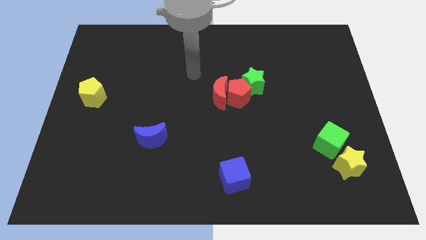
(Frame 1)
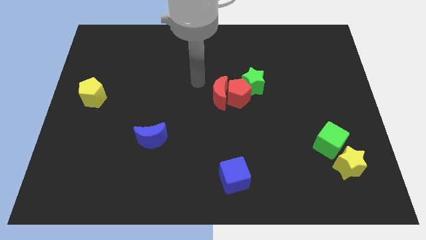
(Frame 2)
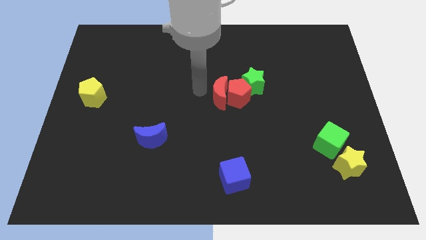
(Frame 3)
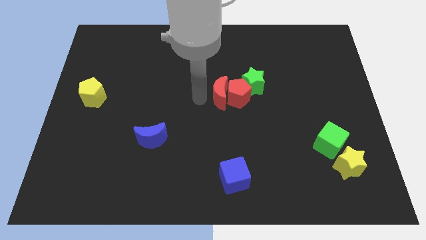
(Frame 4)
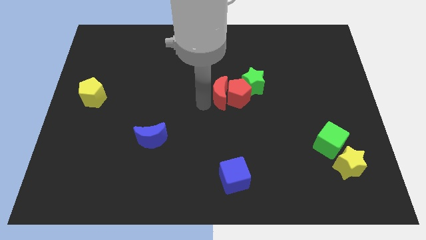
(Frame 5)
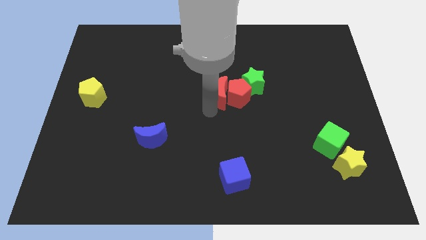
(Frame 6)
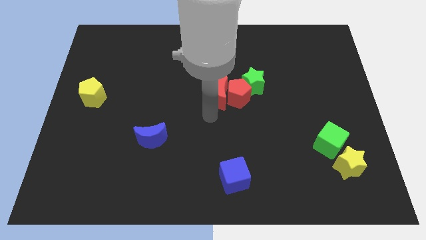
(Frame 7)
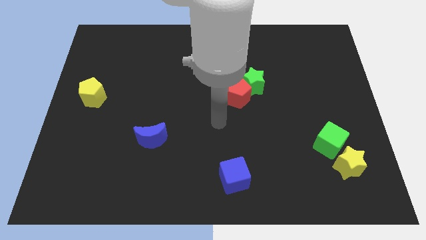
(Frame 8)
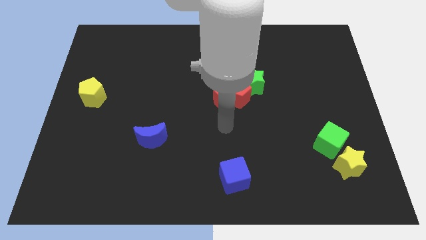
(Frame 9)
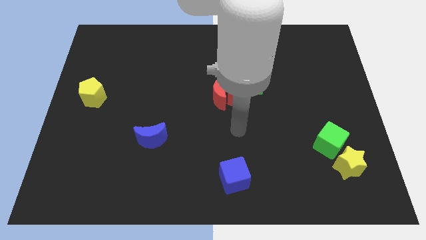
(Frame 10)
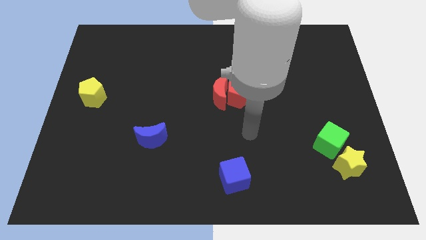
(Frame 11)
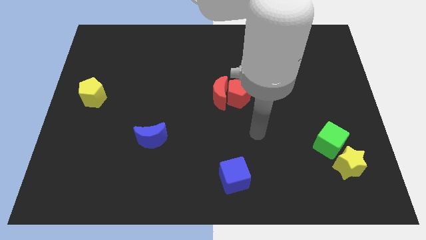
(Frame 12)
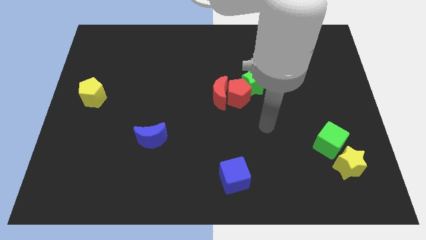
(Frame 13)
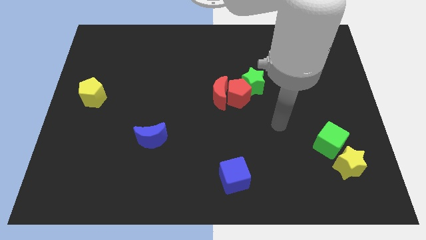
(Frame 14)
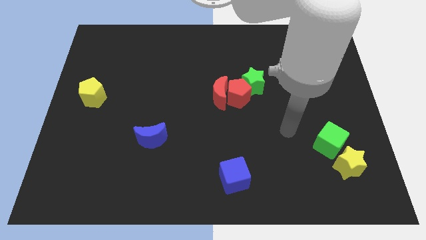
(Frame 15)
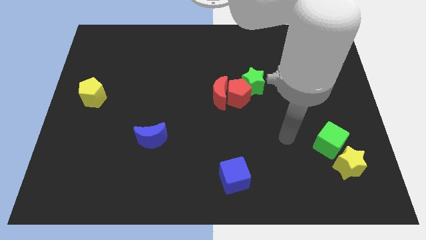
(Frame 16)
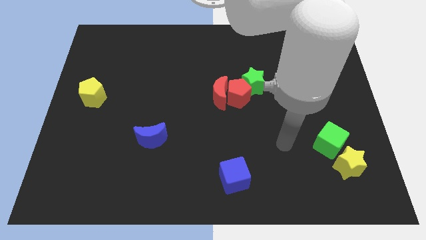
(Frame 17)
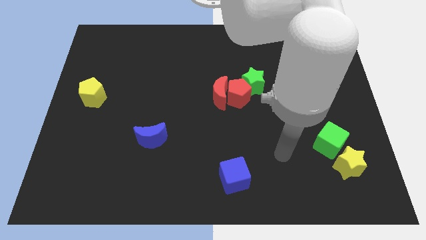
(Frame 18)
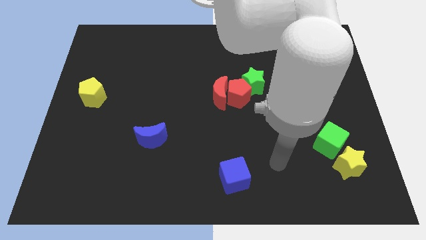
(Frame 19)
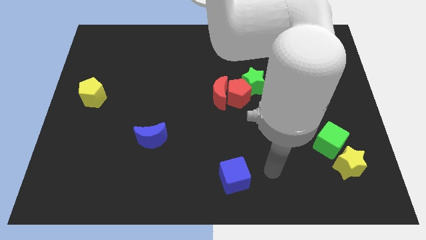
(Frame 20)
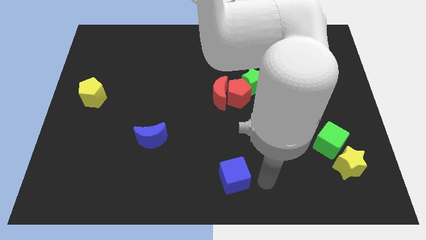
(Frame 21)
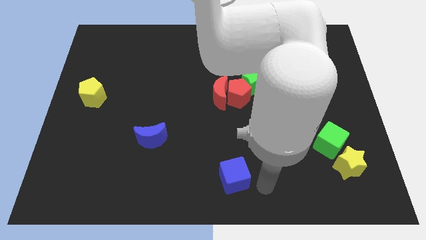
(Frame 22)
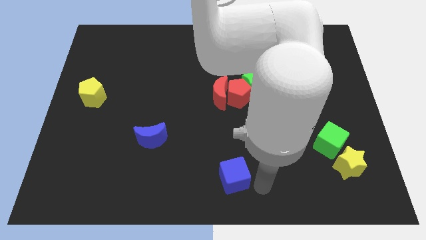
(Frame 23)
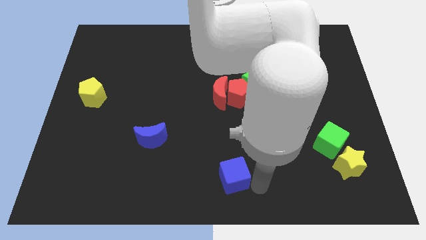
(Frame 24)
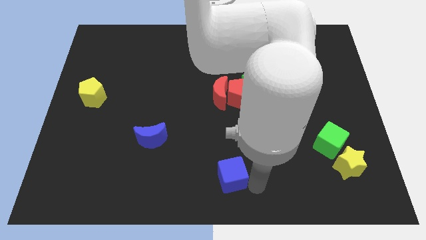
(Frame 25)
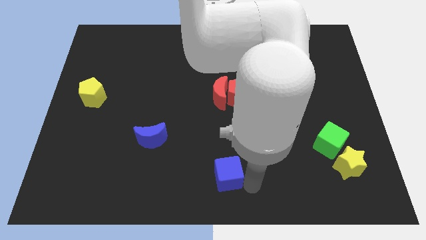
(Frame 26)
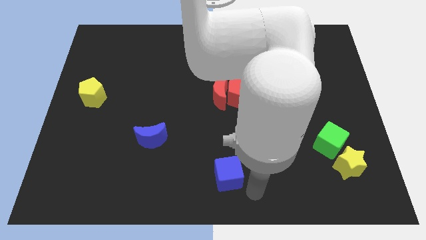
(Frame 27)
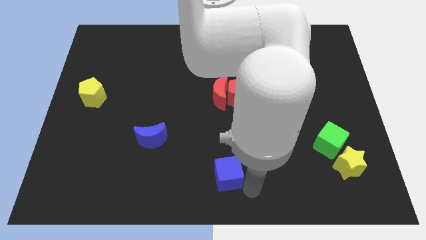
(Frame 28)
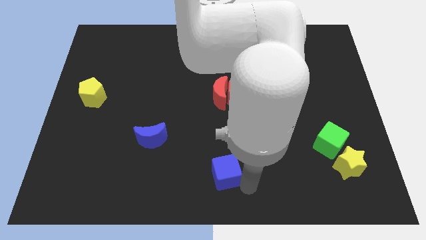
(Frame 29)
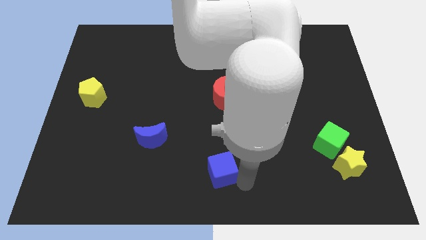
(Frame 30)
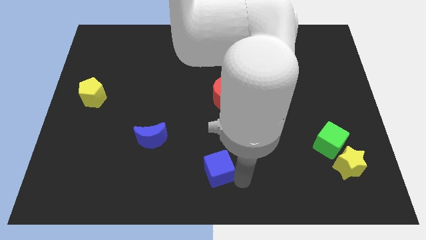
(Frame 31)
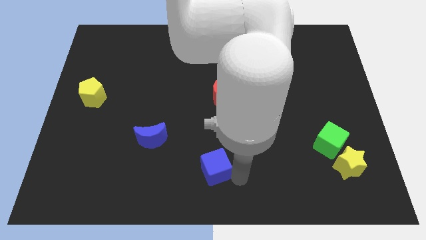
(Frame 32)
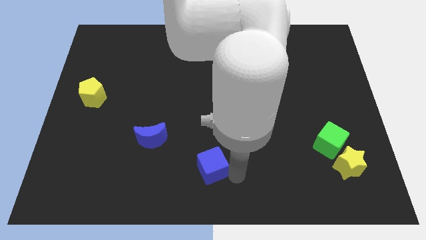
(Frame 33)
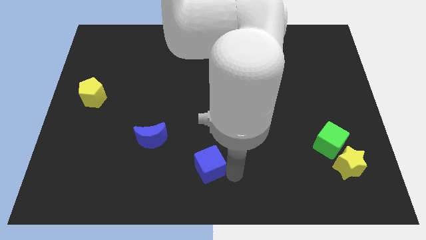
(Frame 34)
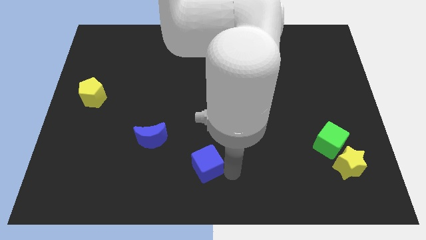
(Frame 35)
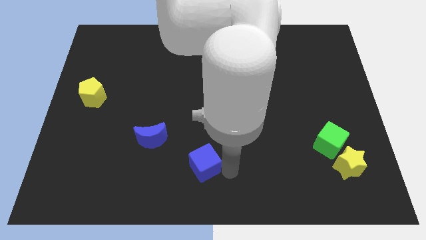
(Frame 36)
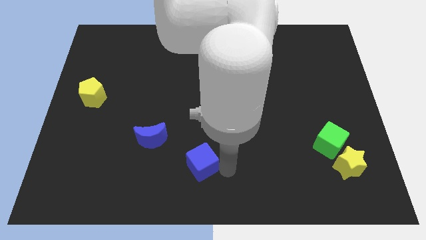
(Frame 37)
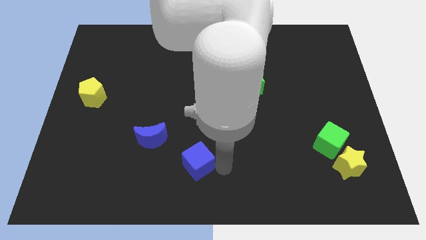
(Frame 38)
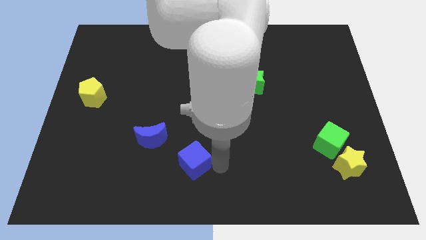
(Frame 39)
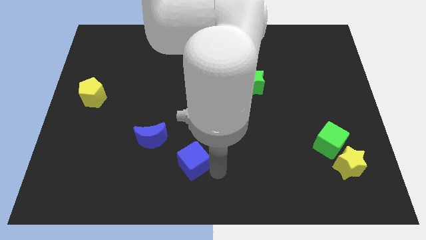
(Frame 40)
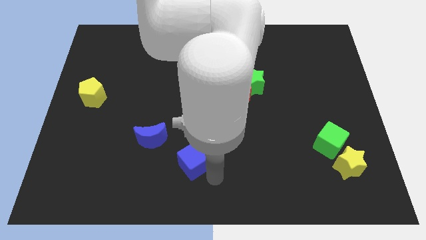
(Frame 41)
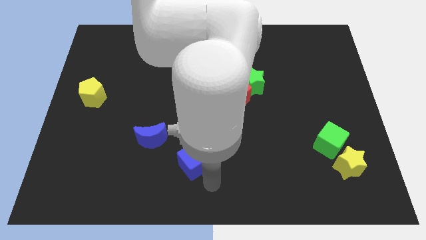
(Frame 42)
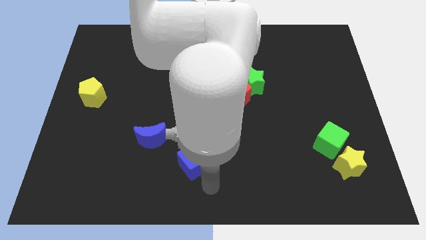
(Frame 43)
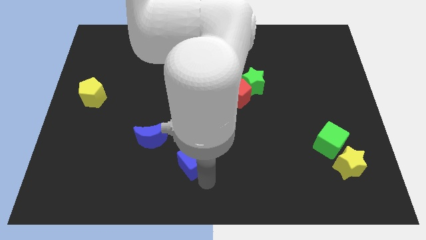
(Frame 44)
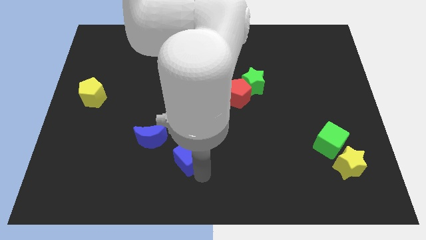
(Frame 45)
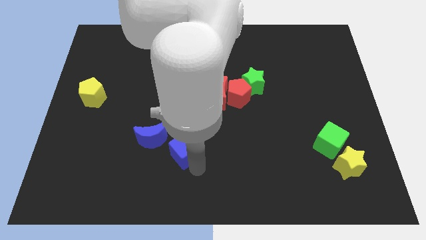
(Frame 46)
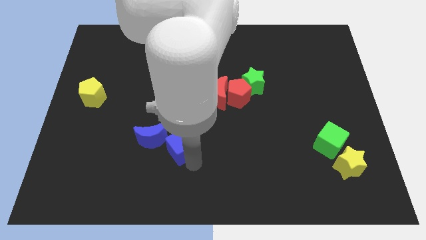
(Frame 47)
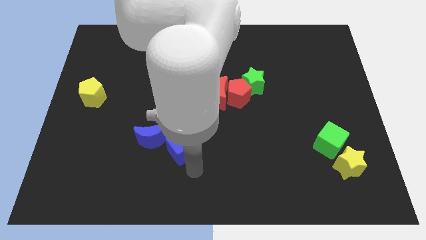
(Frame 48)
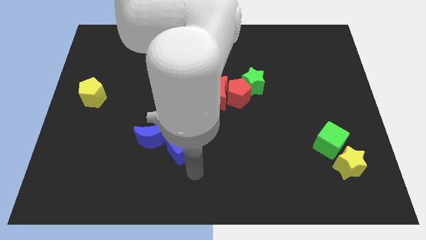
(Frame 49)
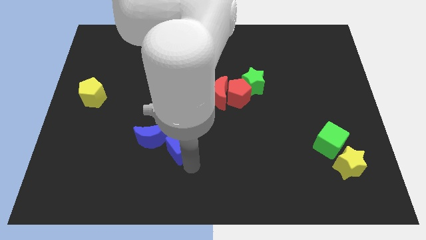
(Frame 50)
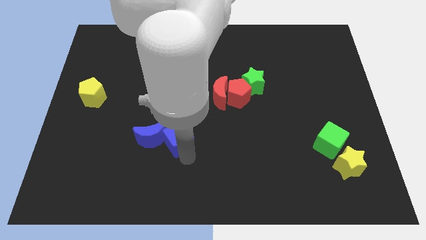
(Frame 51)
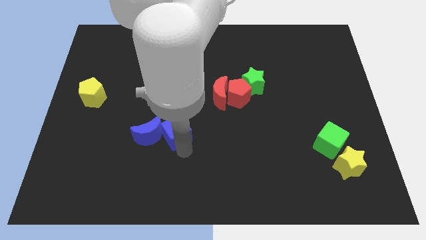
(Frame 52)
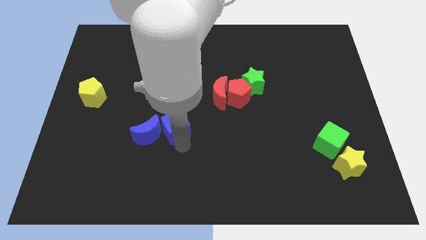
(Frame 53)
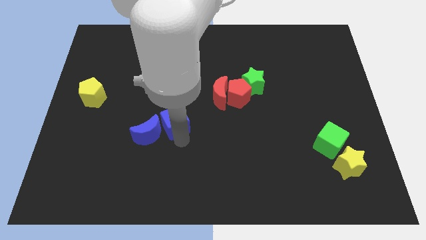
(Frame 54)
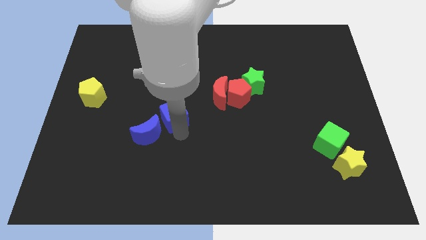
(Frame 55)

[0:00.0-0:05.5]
push the blue cube up and to the left

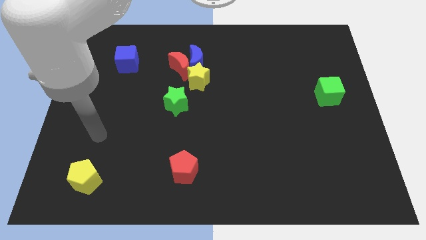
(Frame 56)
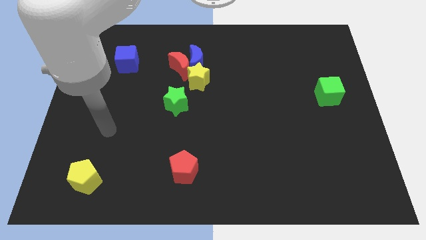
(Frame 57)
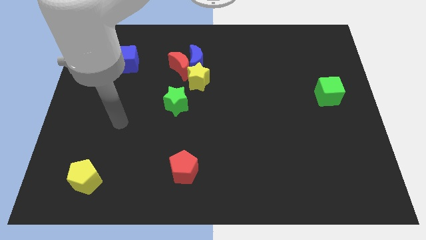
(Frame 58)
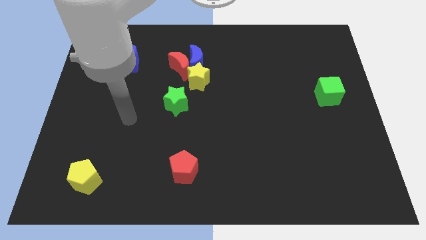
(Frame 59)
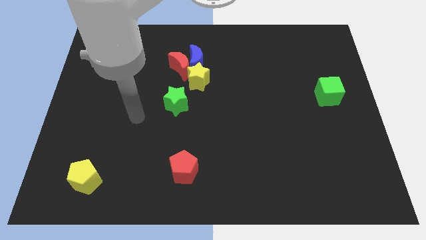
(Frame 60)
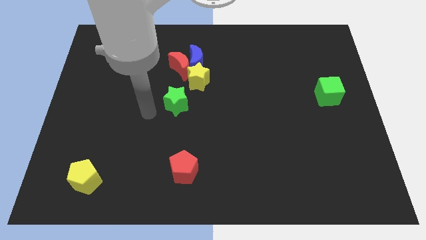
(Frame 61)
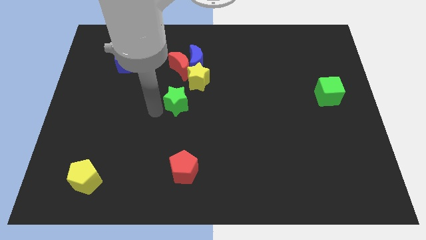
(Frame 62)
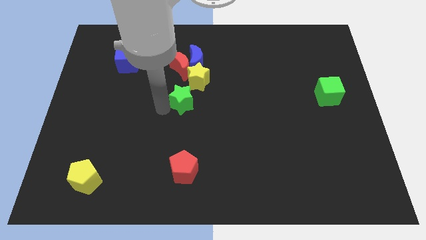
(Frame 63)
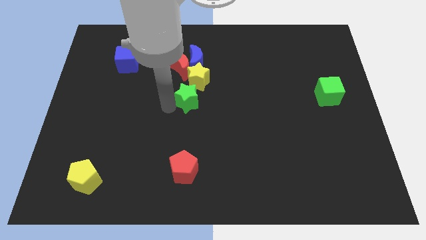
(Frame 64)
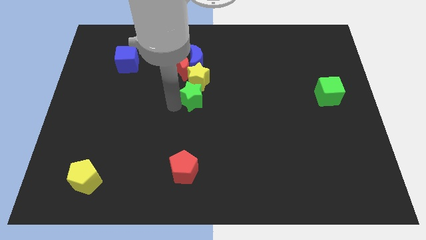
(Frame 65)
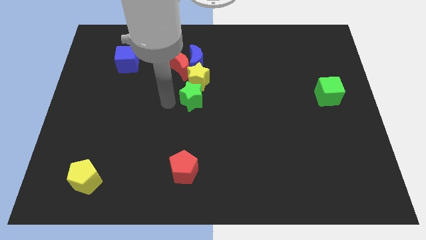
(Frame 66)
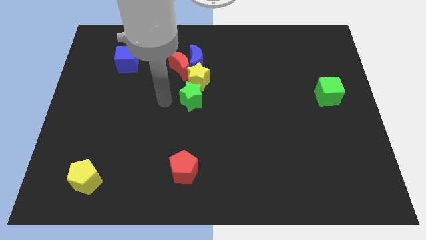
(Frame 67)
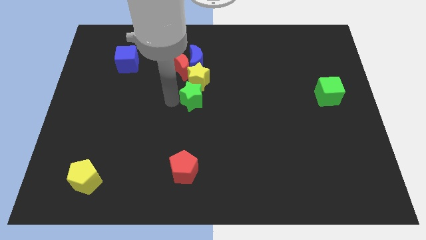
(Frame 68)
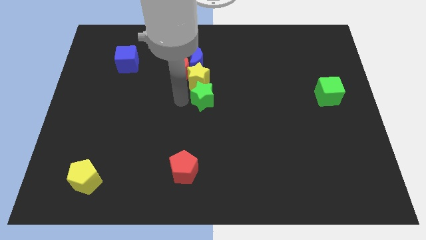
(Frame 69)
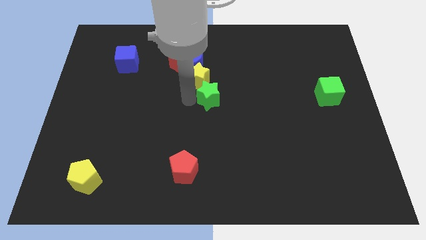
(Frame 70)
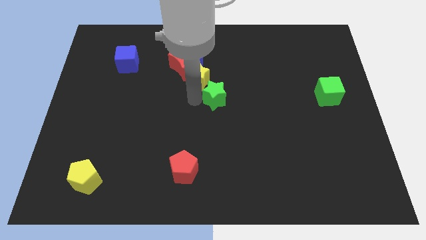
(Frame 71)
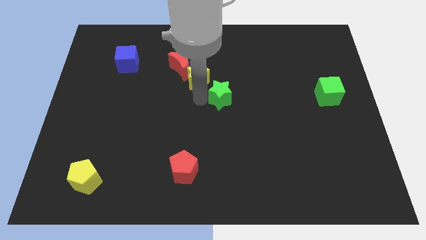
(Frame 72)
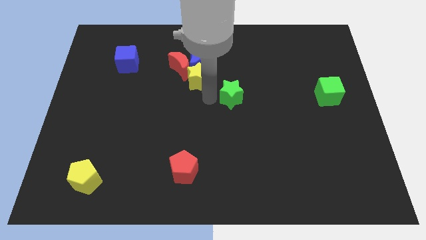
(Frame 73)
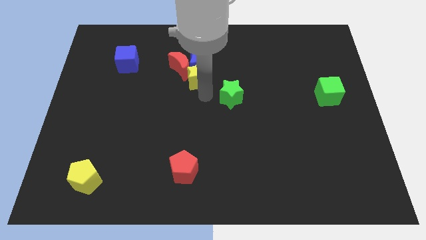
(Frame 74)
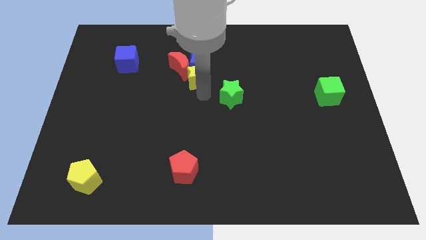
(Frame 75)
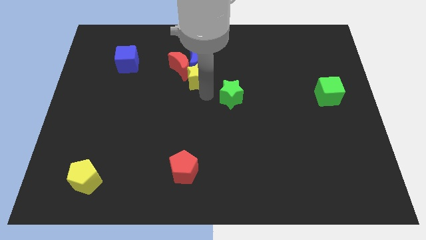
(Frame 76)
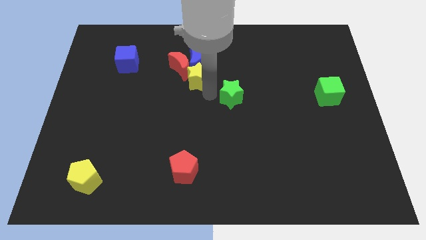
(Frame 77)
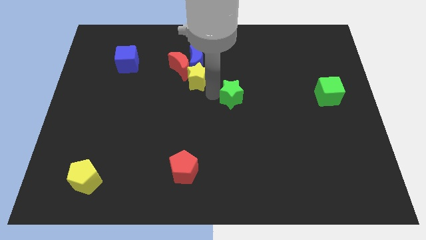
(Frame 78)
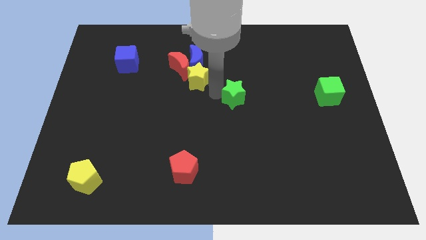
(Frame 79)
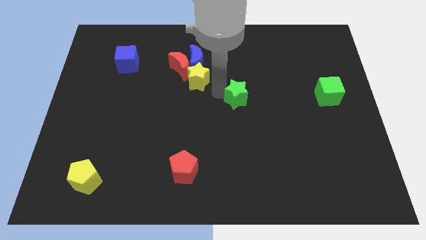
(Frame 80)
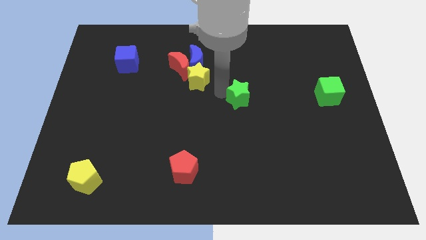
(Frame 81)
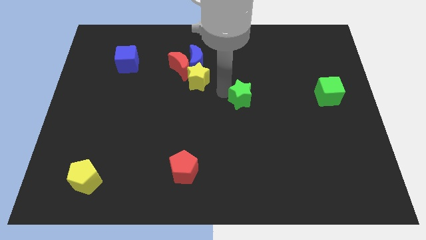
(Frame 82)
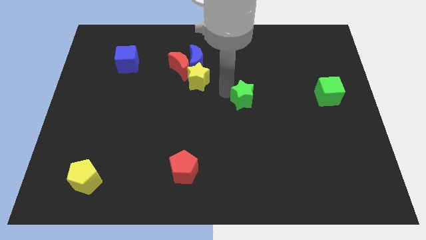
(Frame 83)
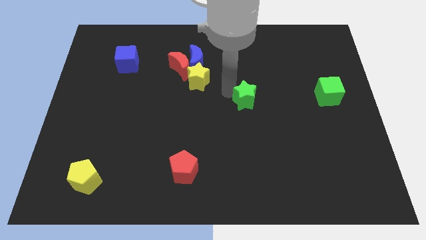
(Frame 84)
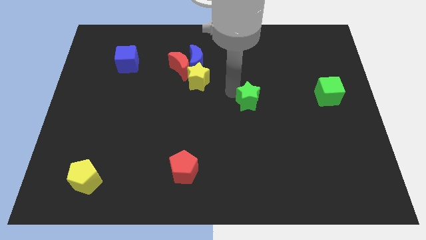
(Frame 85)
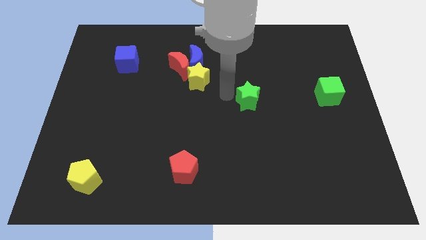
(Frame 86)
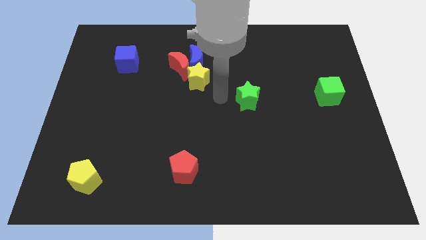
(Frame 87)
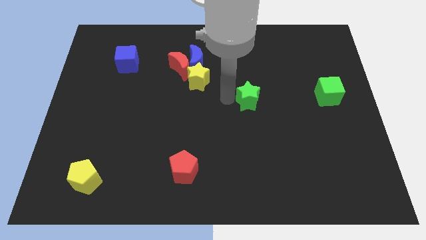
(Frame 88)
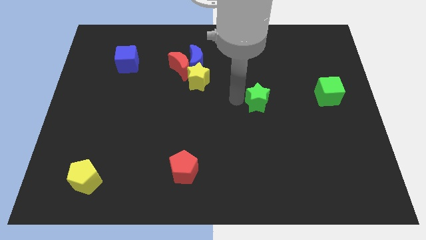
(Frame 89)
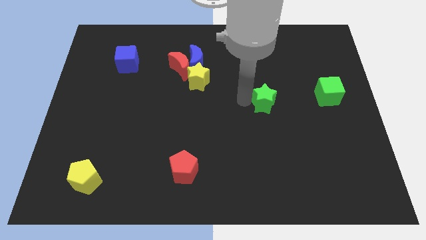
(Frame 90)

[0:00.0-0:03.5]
move the green star to the right
